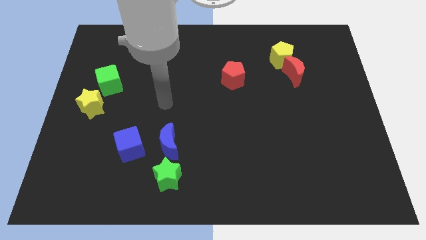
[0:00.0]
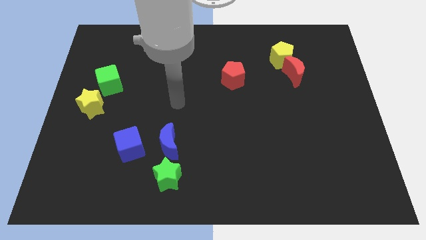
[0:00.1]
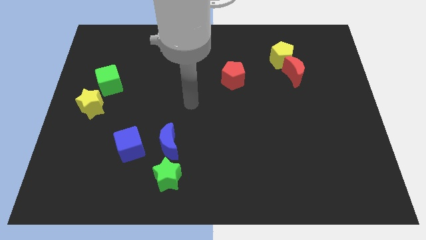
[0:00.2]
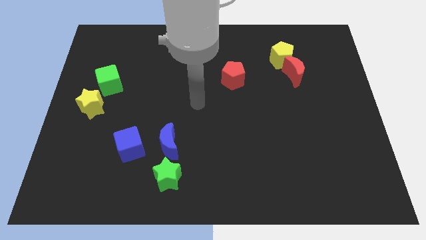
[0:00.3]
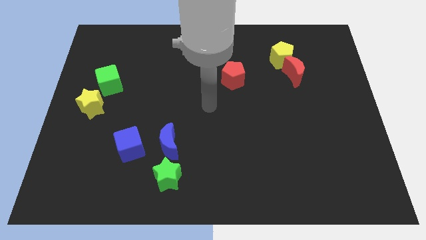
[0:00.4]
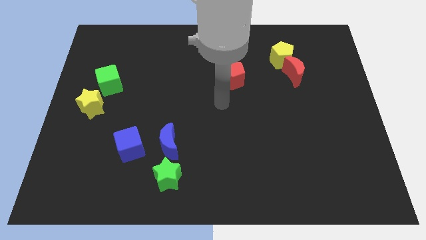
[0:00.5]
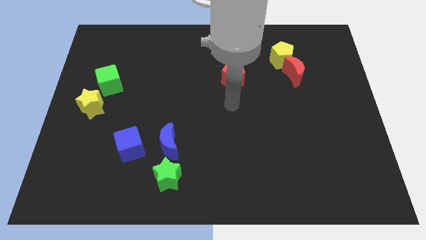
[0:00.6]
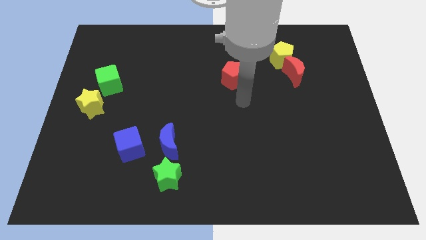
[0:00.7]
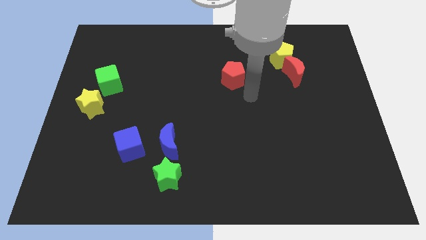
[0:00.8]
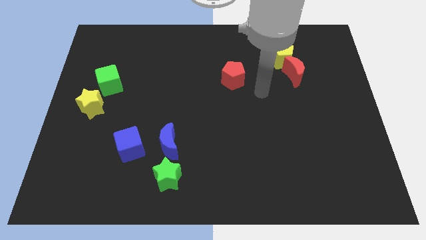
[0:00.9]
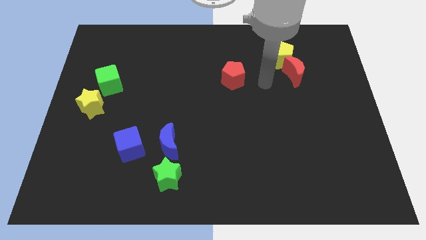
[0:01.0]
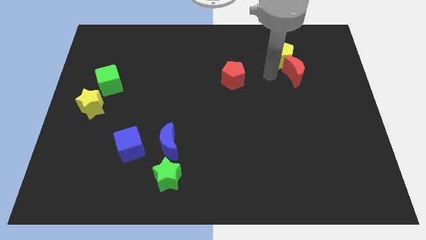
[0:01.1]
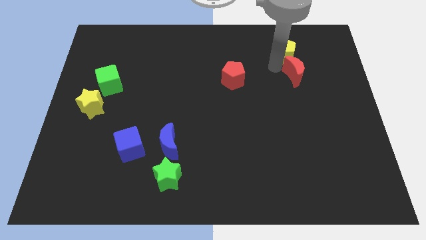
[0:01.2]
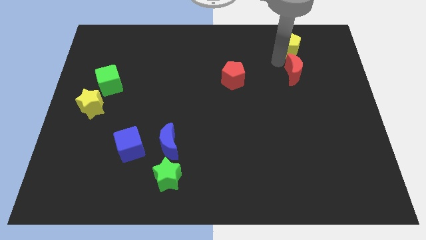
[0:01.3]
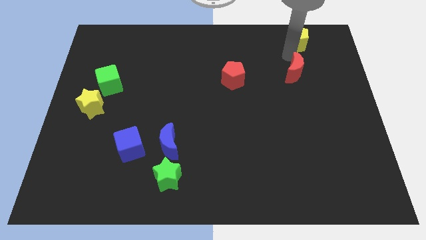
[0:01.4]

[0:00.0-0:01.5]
pull the red moon apart from the yellow pentagon

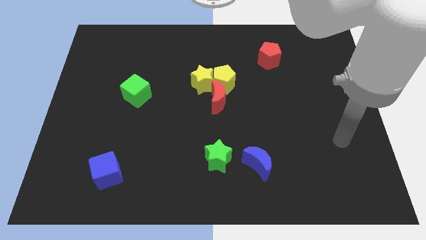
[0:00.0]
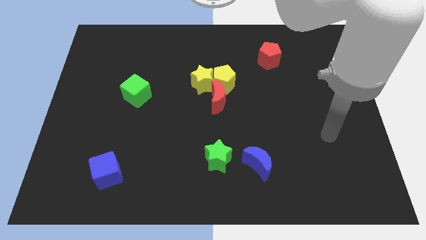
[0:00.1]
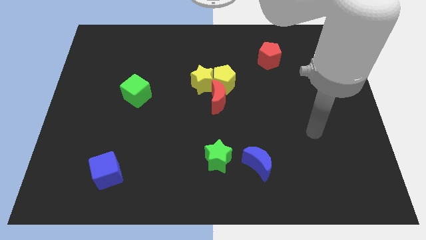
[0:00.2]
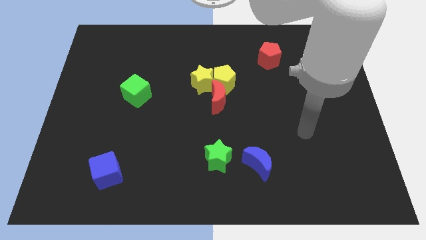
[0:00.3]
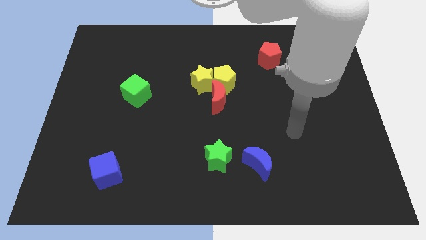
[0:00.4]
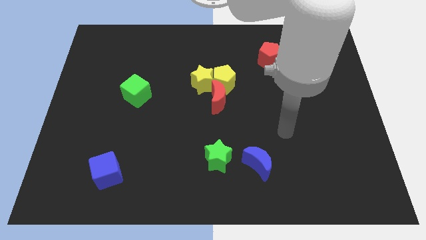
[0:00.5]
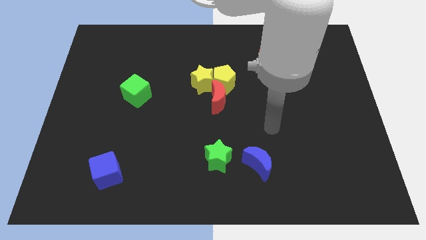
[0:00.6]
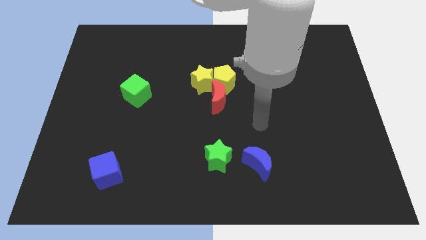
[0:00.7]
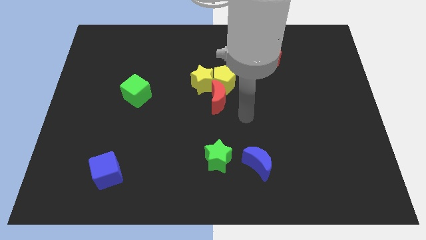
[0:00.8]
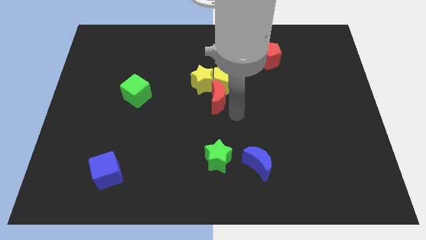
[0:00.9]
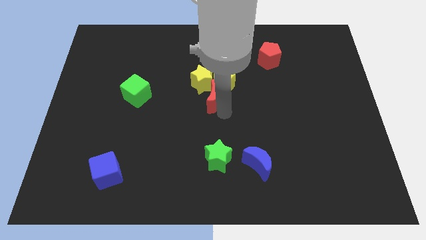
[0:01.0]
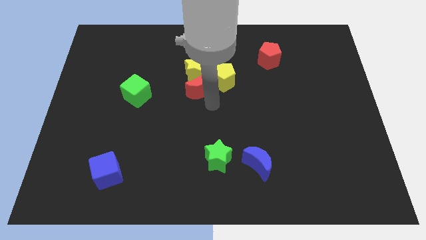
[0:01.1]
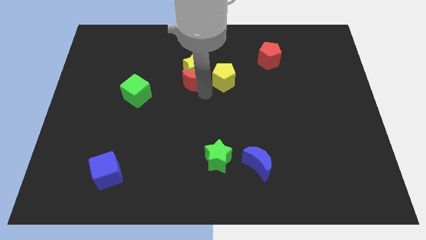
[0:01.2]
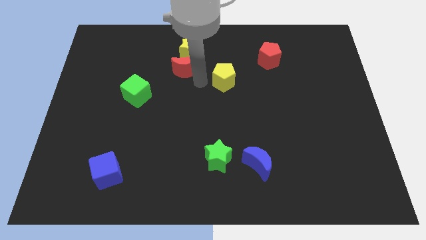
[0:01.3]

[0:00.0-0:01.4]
move the yellow pentagon away from the yellow star and red moon

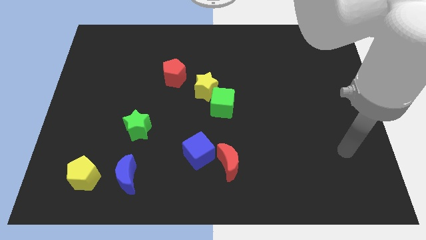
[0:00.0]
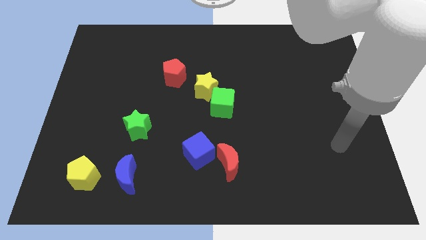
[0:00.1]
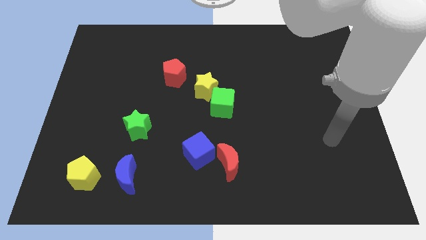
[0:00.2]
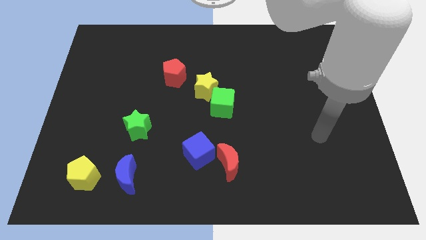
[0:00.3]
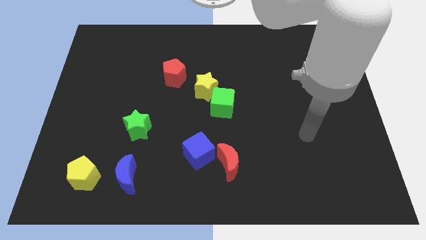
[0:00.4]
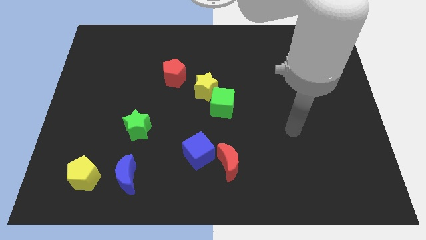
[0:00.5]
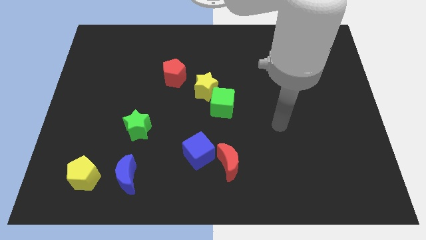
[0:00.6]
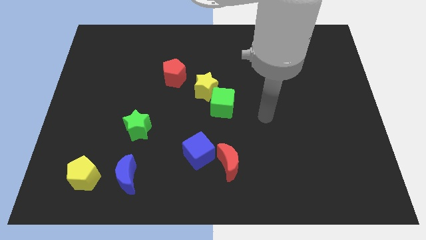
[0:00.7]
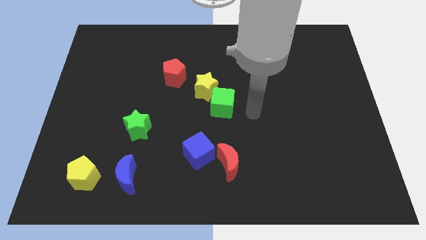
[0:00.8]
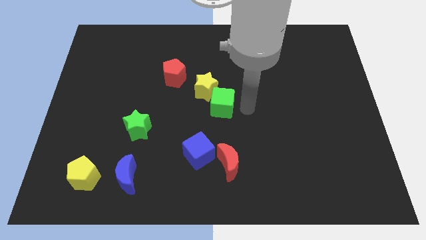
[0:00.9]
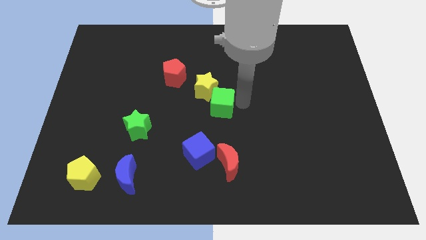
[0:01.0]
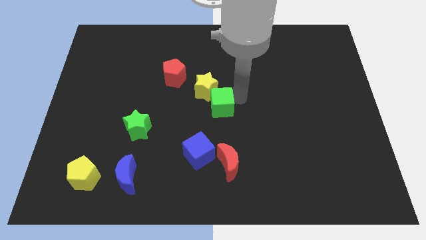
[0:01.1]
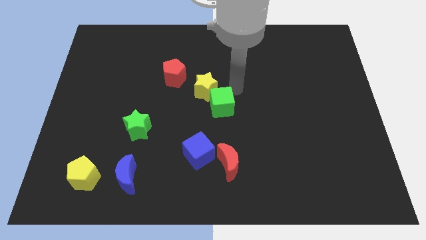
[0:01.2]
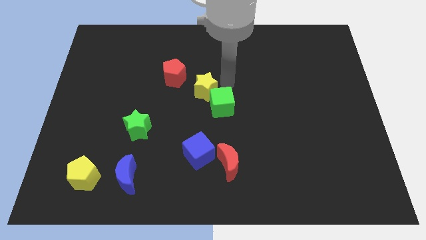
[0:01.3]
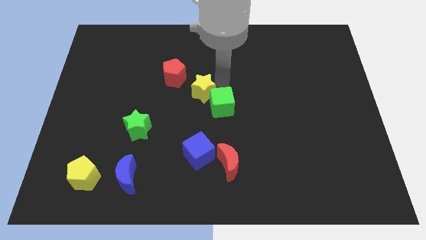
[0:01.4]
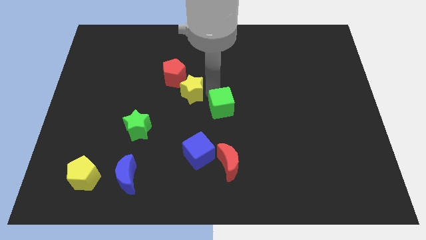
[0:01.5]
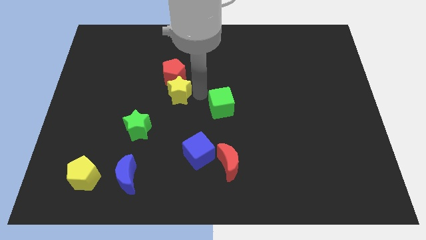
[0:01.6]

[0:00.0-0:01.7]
move the green cube away from the yellow star

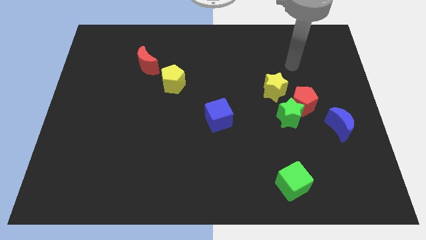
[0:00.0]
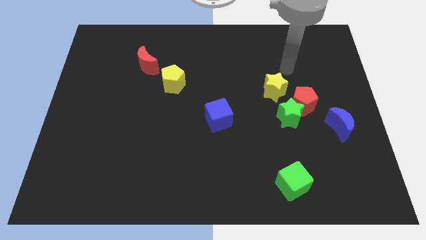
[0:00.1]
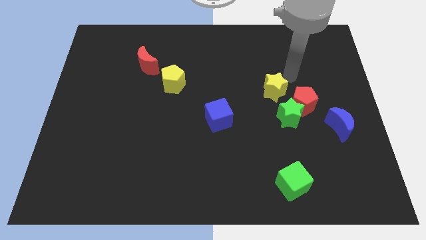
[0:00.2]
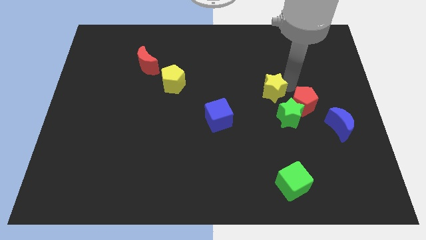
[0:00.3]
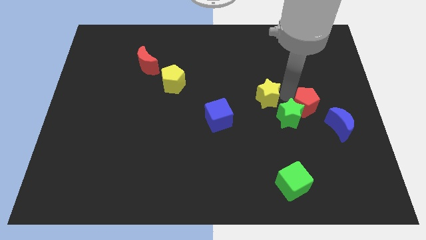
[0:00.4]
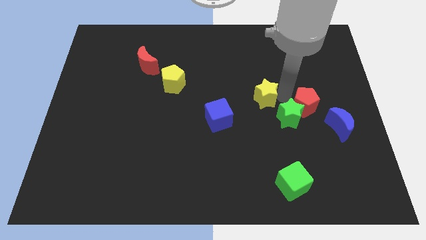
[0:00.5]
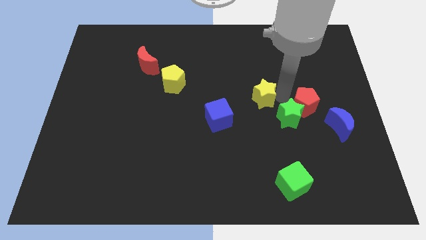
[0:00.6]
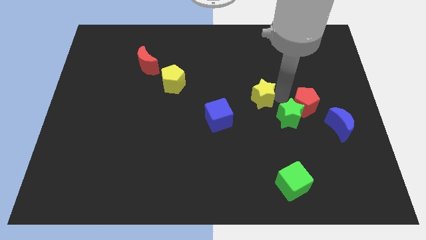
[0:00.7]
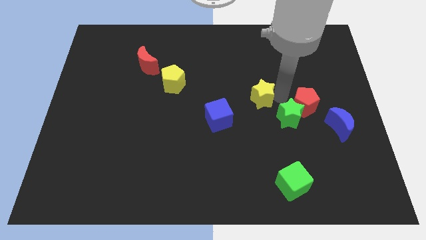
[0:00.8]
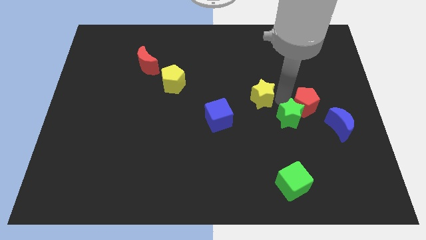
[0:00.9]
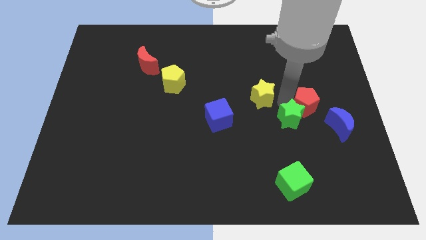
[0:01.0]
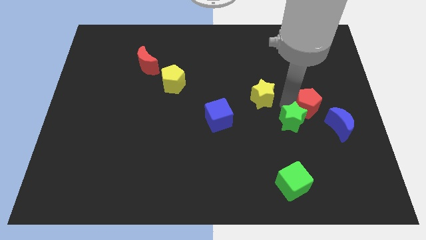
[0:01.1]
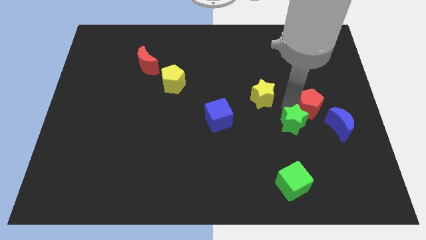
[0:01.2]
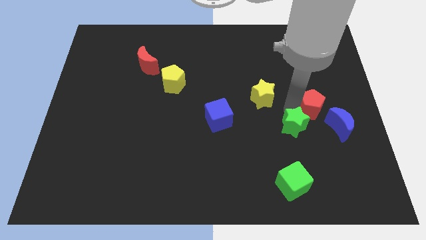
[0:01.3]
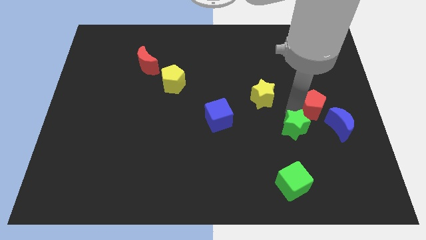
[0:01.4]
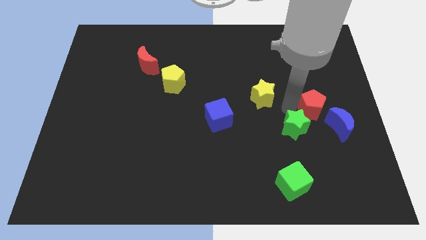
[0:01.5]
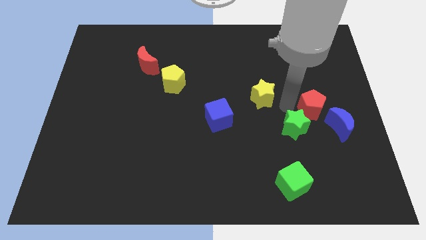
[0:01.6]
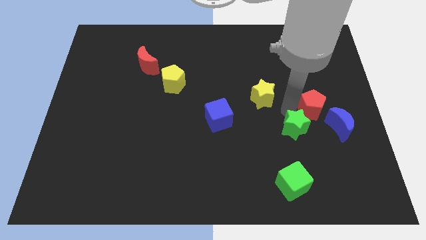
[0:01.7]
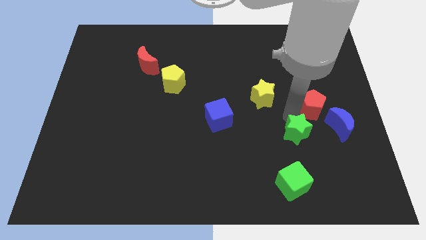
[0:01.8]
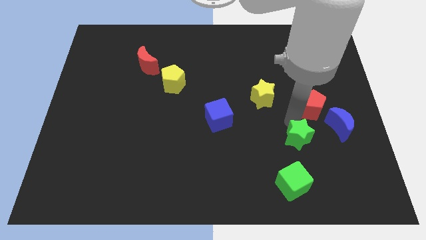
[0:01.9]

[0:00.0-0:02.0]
pull the green star apart from the red pentagon and yellow star

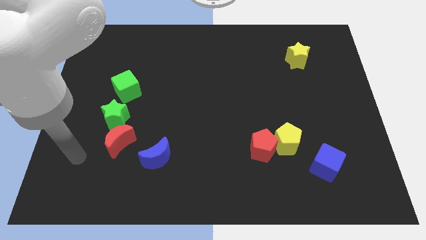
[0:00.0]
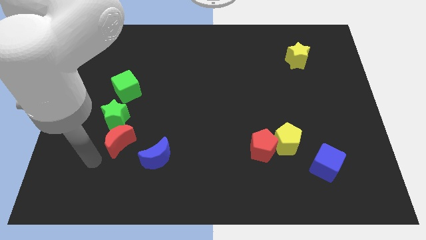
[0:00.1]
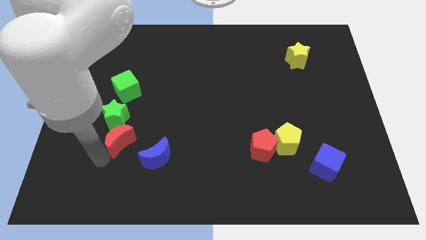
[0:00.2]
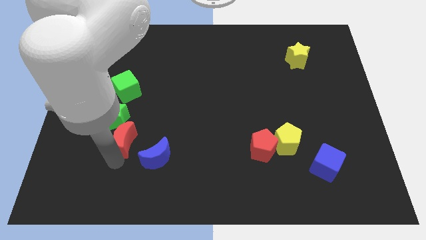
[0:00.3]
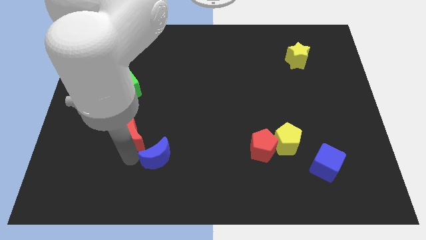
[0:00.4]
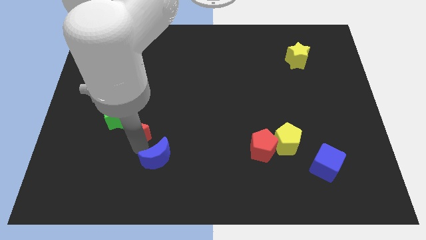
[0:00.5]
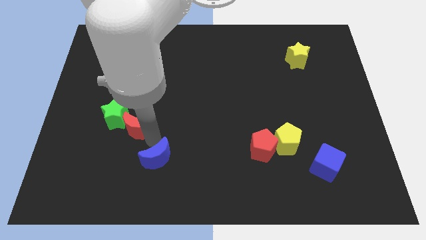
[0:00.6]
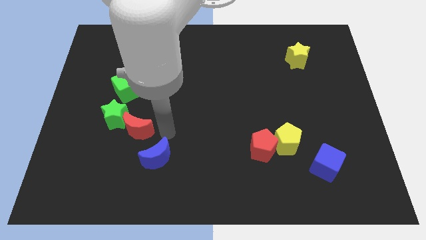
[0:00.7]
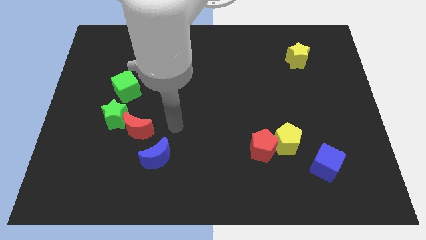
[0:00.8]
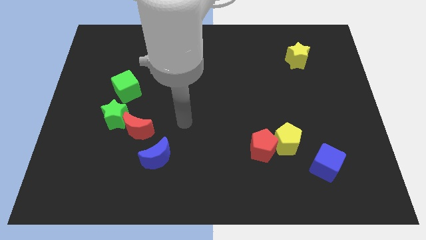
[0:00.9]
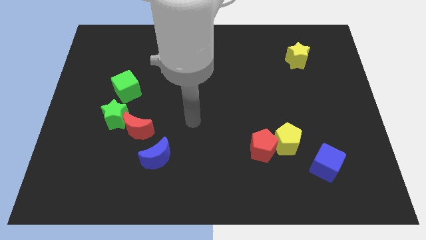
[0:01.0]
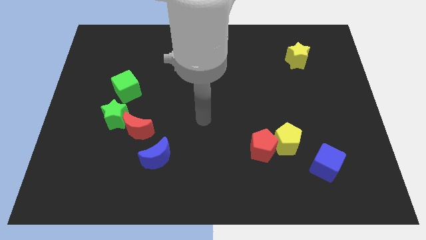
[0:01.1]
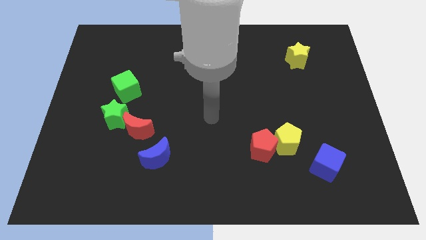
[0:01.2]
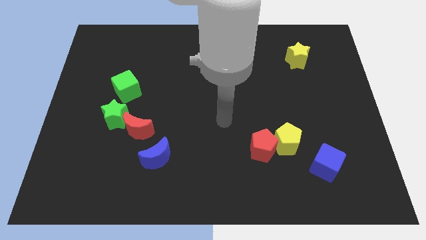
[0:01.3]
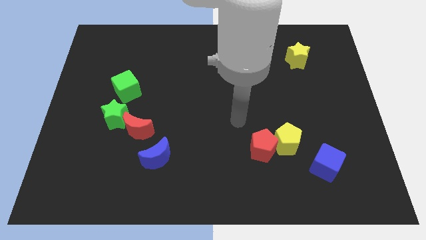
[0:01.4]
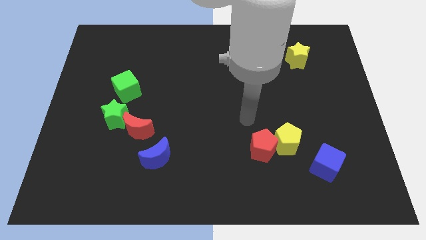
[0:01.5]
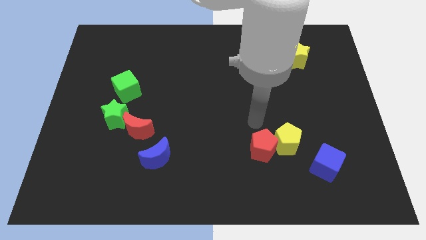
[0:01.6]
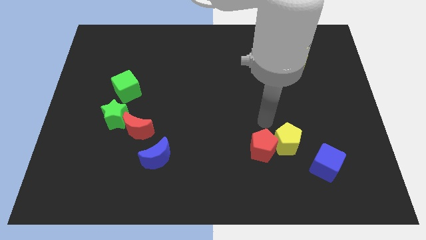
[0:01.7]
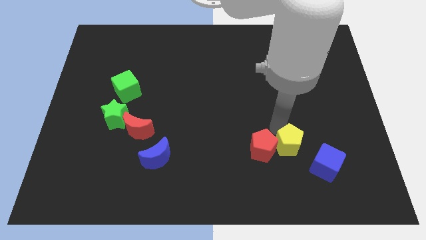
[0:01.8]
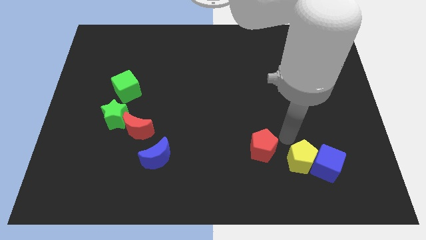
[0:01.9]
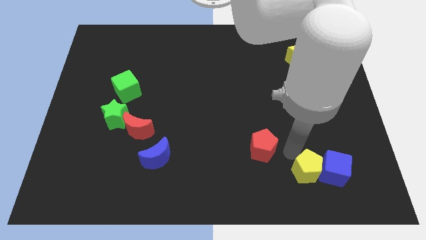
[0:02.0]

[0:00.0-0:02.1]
separate the red pentagon from the yellow pentagon

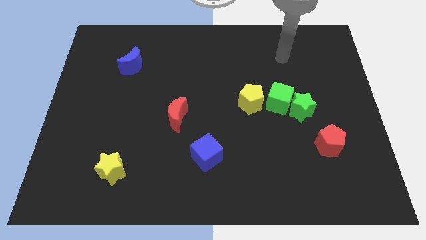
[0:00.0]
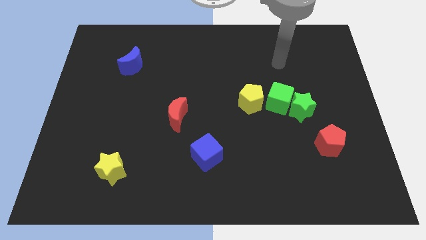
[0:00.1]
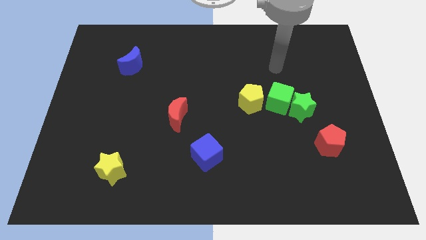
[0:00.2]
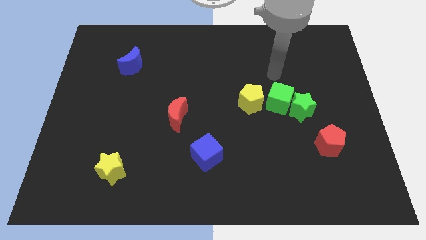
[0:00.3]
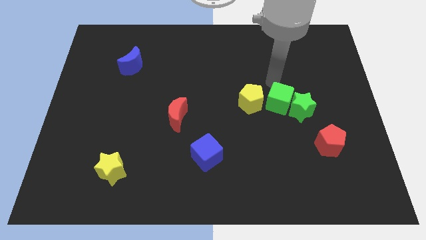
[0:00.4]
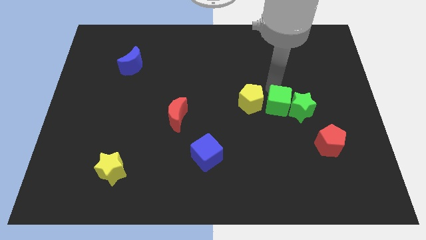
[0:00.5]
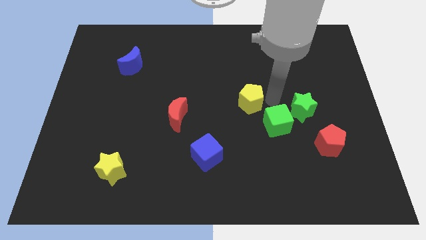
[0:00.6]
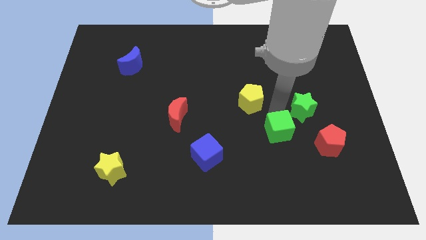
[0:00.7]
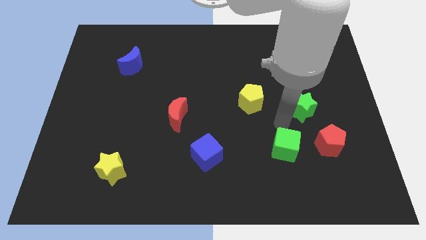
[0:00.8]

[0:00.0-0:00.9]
pull the green star apart from the green cube
